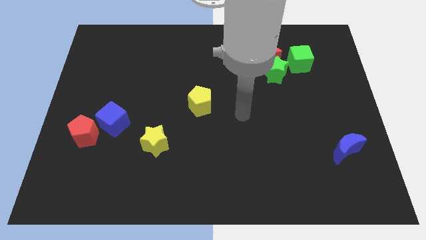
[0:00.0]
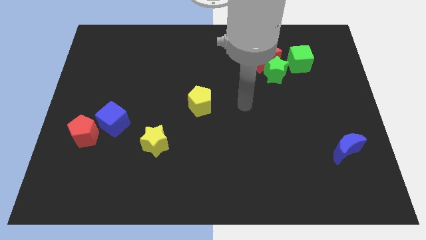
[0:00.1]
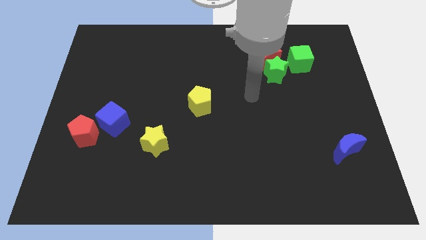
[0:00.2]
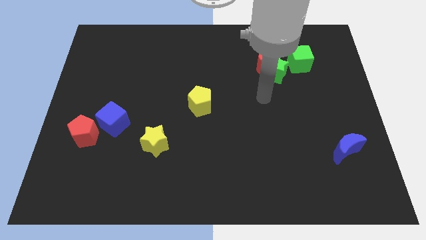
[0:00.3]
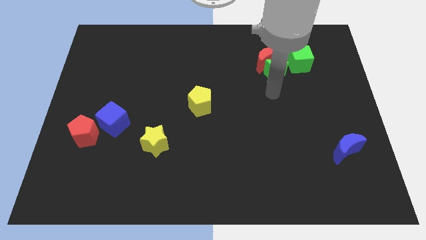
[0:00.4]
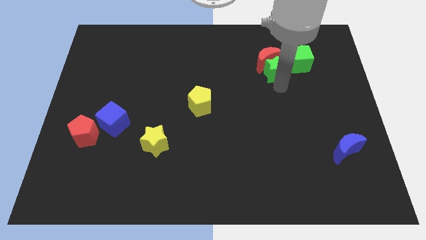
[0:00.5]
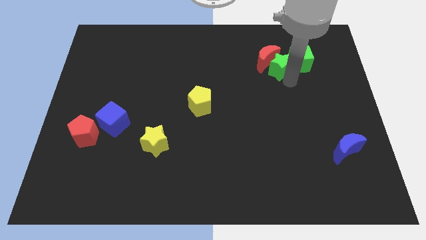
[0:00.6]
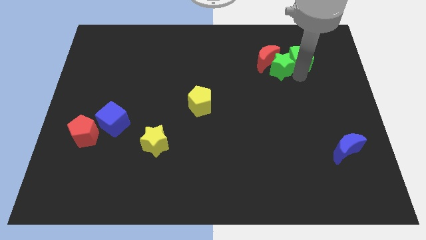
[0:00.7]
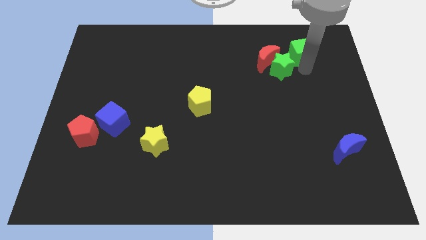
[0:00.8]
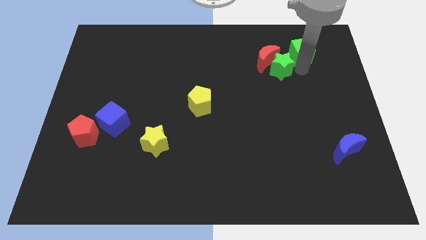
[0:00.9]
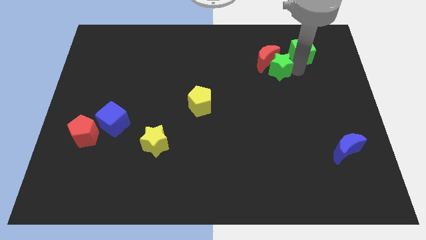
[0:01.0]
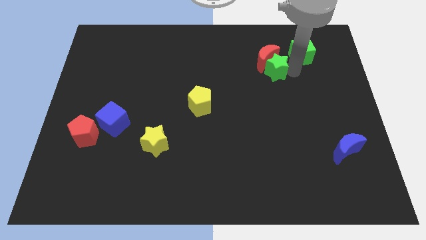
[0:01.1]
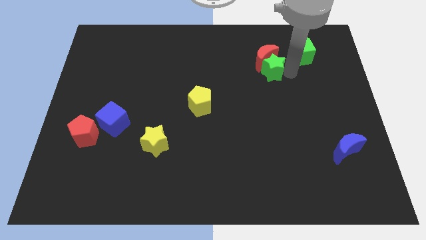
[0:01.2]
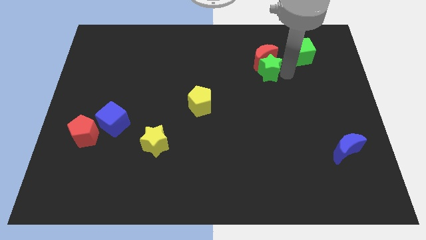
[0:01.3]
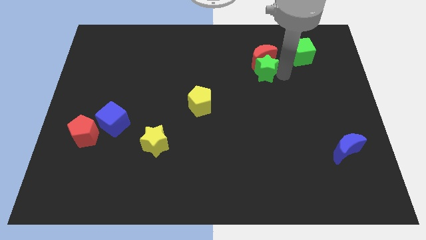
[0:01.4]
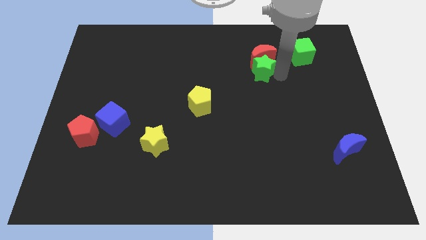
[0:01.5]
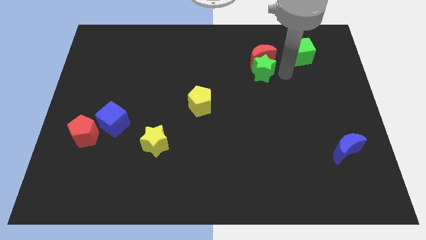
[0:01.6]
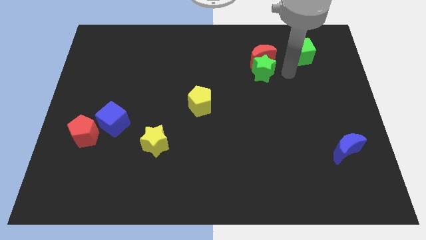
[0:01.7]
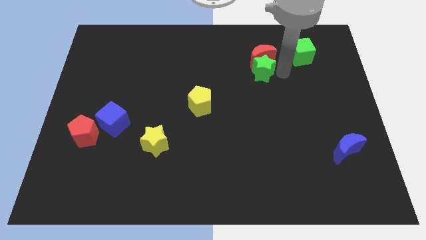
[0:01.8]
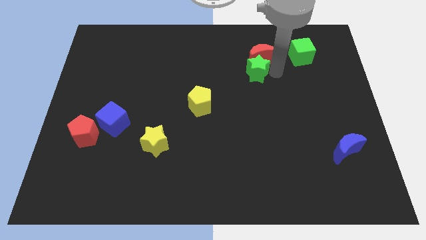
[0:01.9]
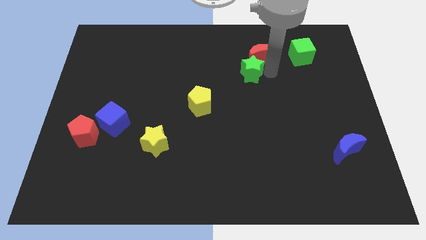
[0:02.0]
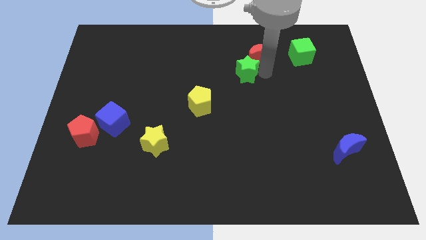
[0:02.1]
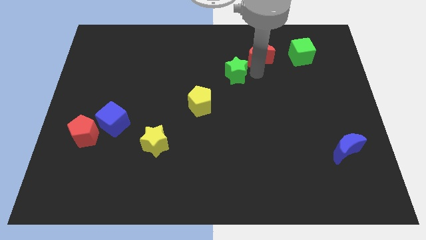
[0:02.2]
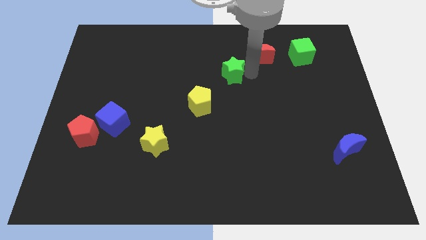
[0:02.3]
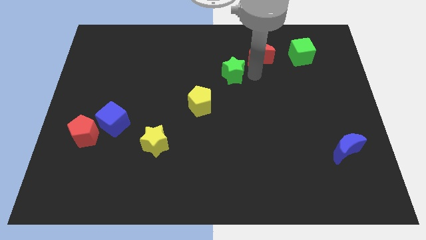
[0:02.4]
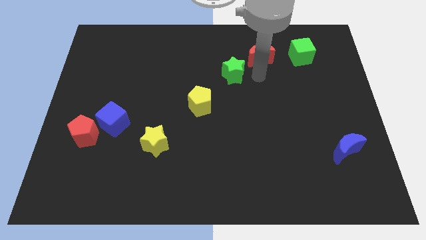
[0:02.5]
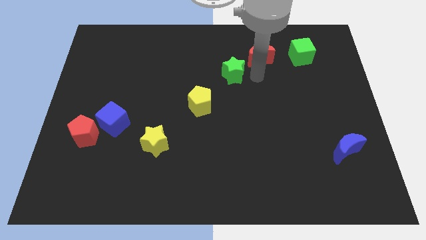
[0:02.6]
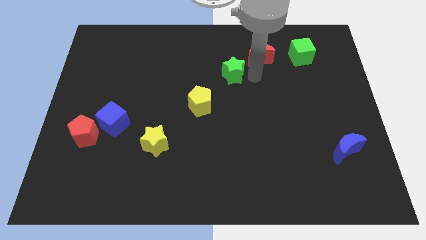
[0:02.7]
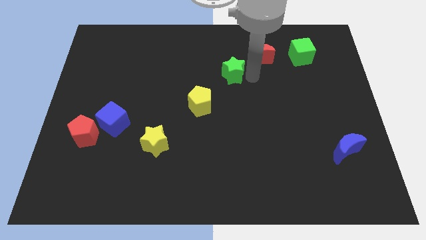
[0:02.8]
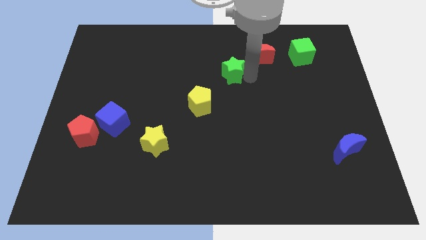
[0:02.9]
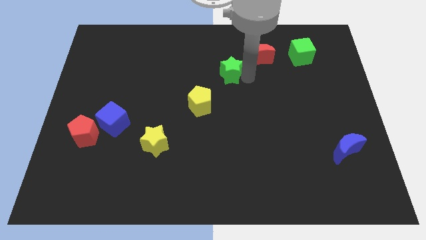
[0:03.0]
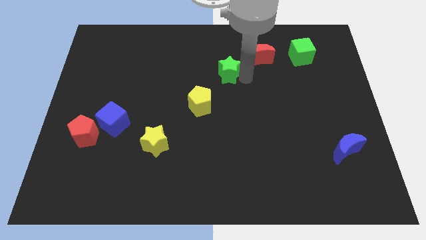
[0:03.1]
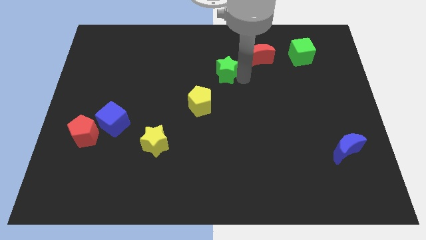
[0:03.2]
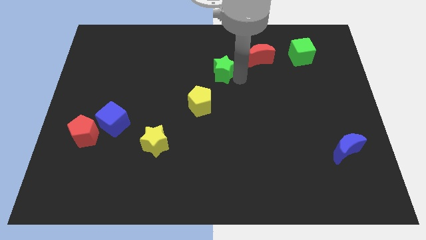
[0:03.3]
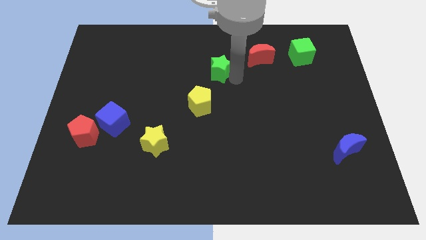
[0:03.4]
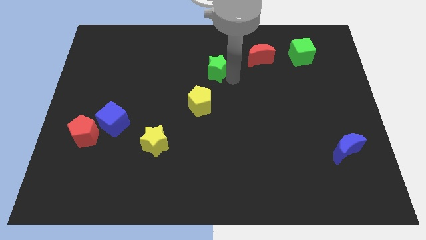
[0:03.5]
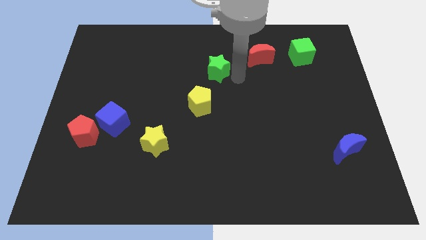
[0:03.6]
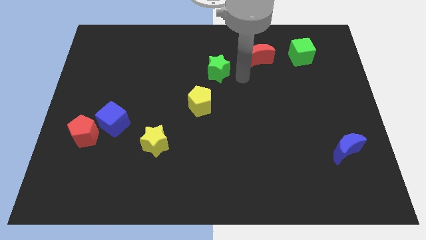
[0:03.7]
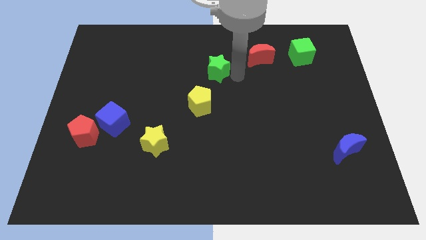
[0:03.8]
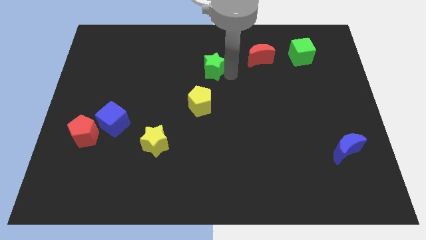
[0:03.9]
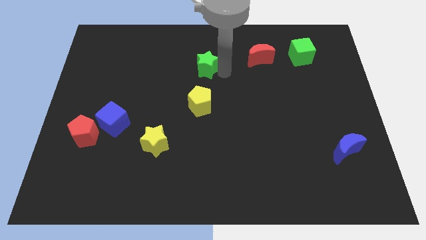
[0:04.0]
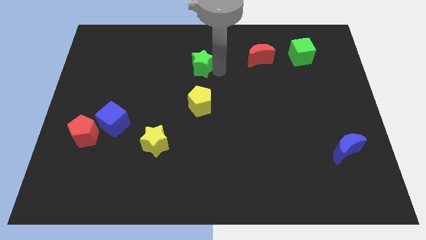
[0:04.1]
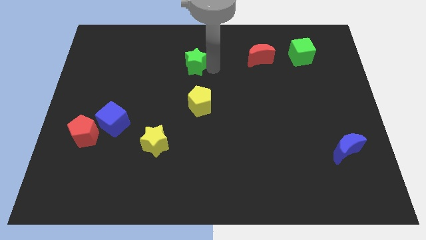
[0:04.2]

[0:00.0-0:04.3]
push the green star left

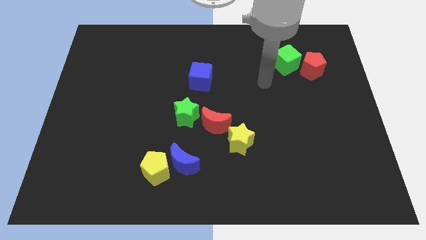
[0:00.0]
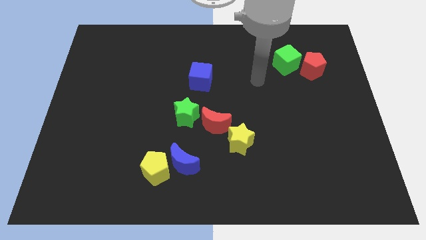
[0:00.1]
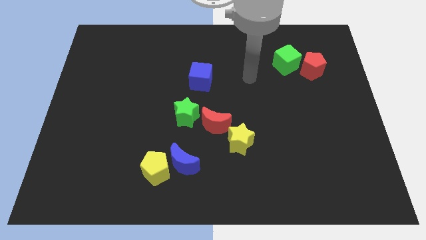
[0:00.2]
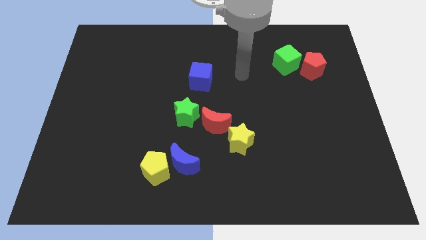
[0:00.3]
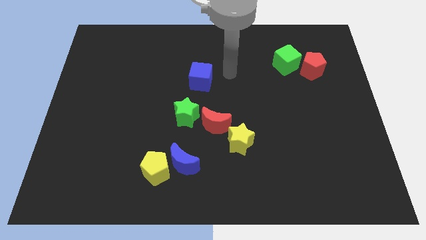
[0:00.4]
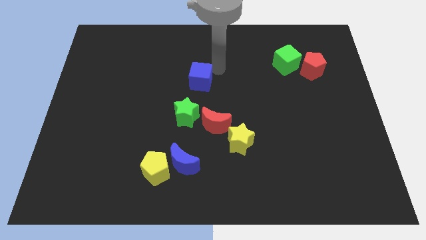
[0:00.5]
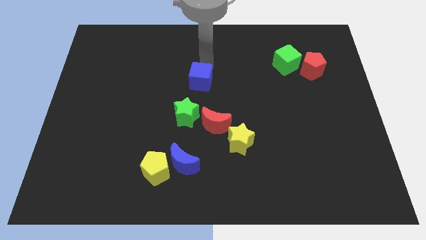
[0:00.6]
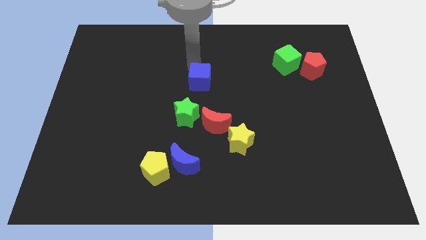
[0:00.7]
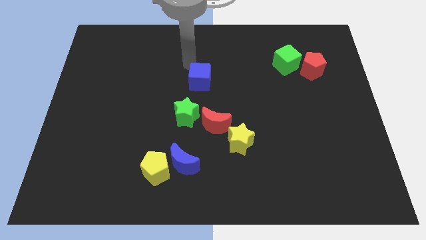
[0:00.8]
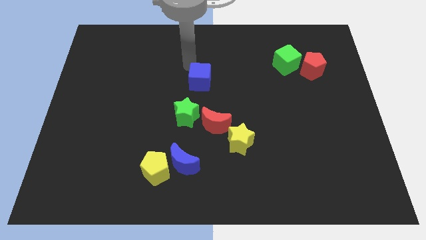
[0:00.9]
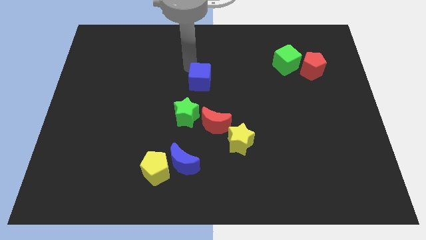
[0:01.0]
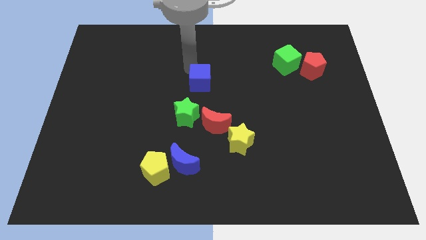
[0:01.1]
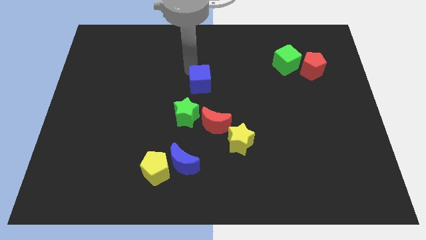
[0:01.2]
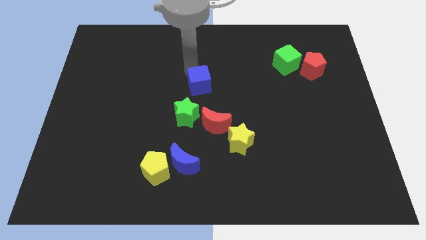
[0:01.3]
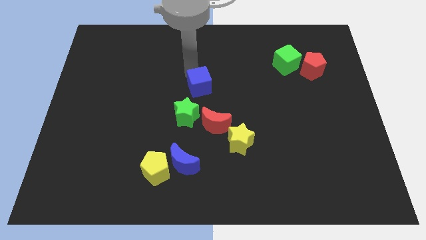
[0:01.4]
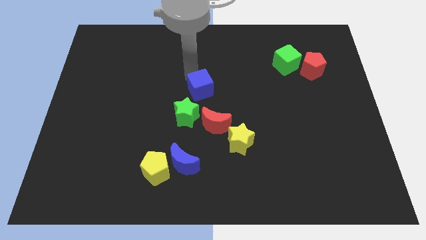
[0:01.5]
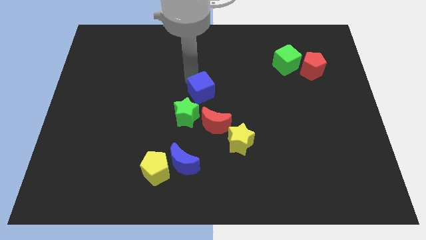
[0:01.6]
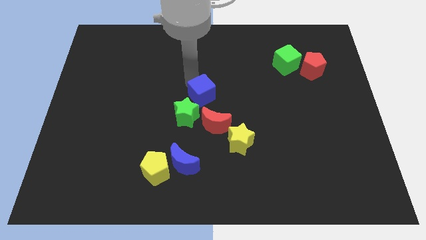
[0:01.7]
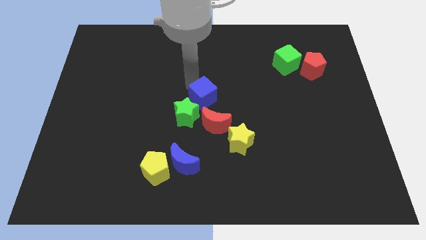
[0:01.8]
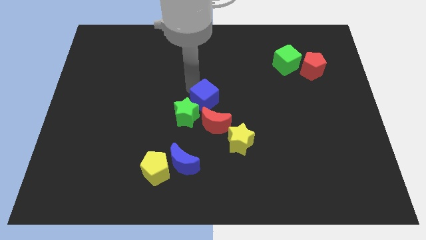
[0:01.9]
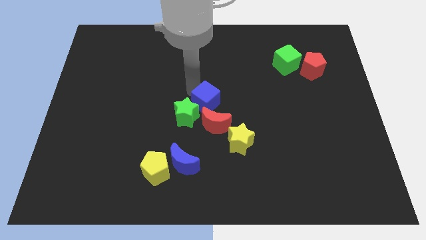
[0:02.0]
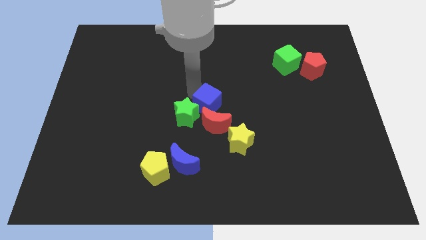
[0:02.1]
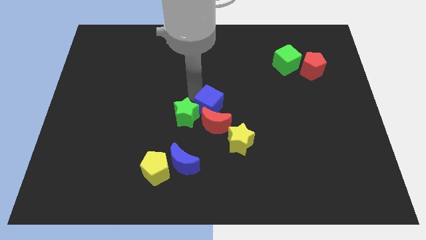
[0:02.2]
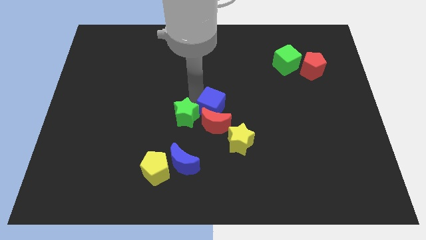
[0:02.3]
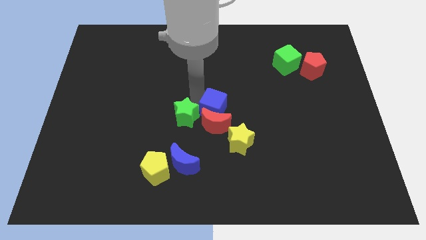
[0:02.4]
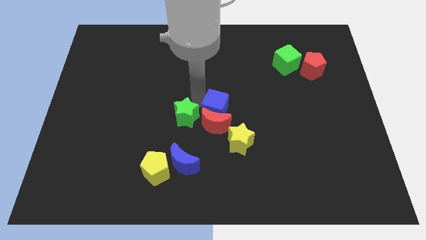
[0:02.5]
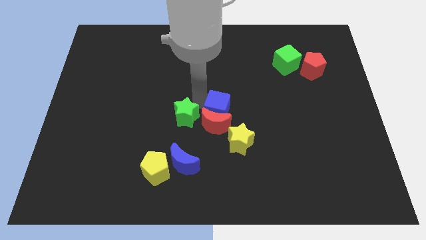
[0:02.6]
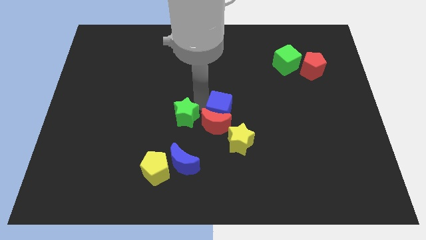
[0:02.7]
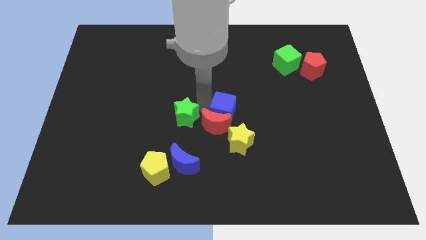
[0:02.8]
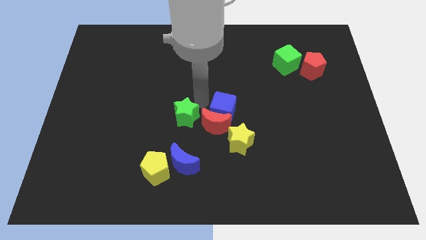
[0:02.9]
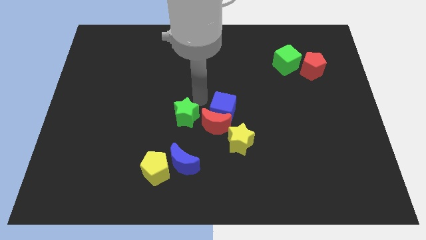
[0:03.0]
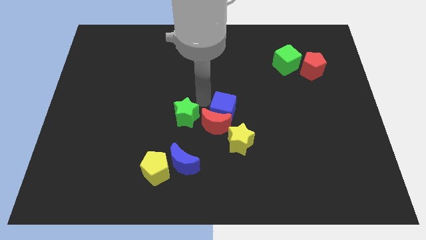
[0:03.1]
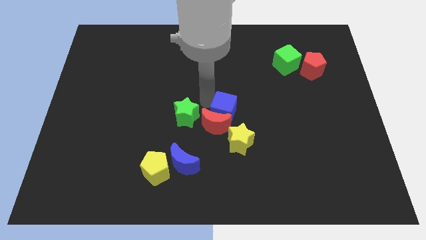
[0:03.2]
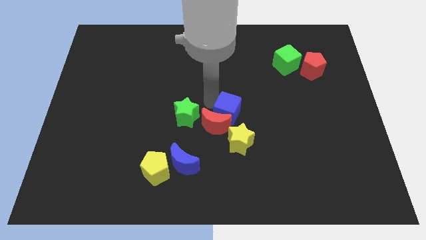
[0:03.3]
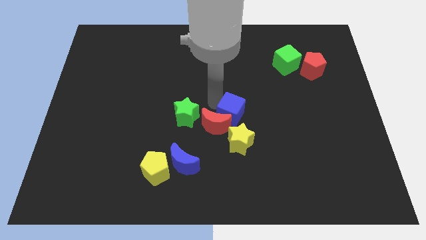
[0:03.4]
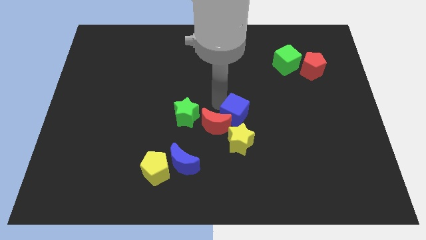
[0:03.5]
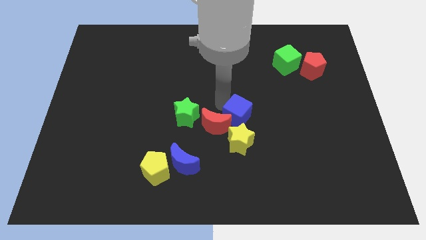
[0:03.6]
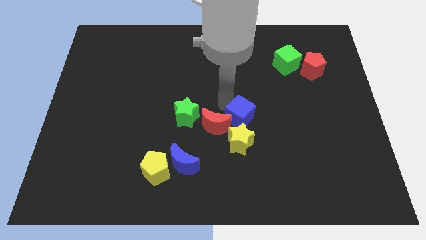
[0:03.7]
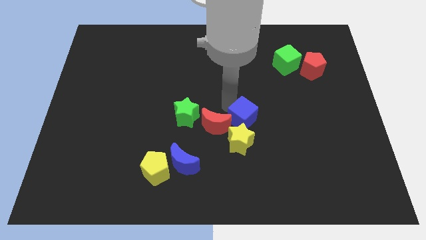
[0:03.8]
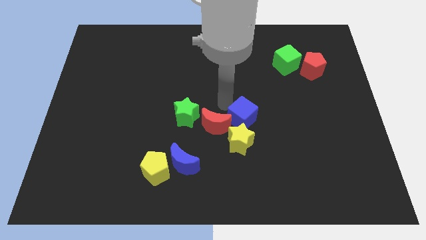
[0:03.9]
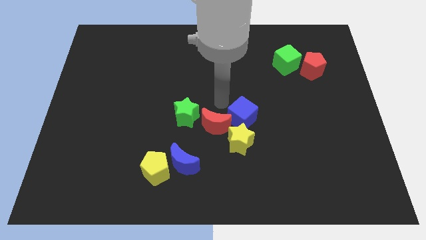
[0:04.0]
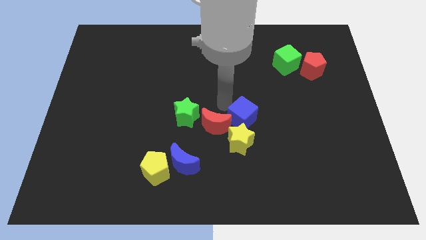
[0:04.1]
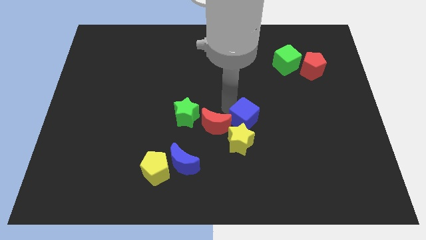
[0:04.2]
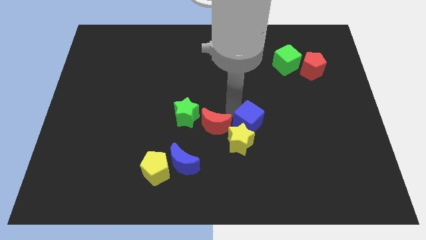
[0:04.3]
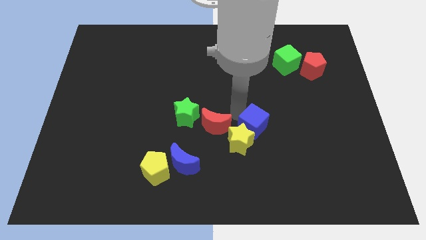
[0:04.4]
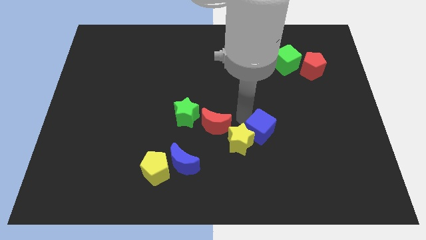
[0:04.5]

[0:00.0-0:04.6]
move the blue cube downwards and then to the right
